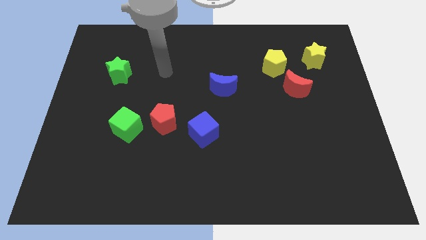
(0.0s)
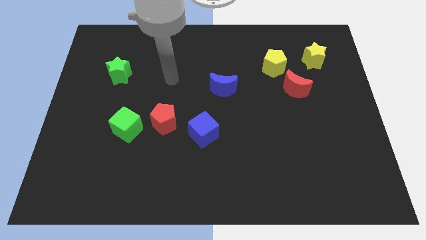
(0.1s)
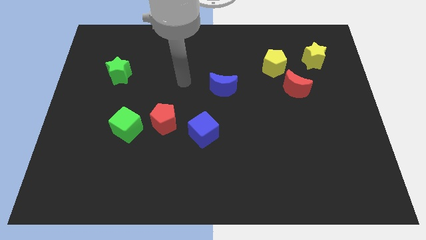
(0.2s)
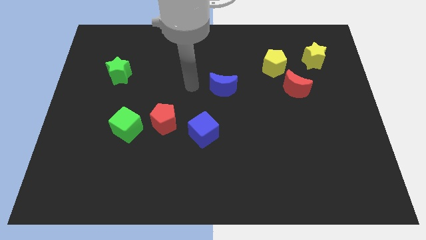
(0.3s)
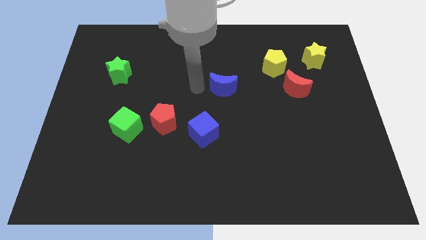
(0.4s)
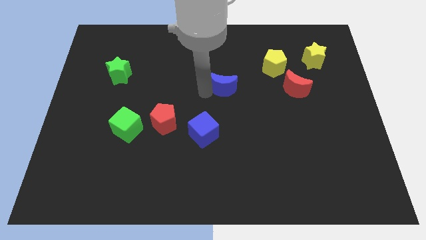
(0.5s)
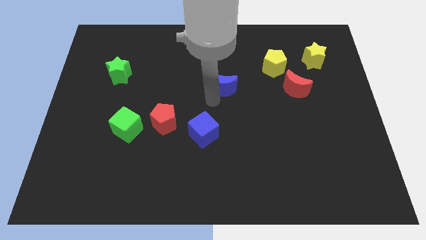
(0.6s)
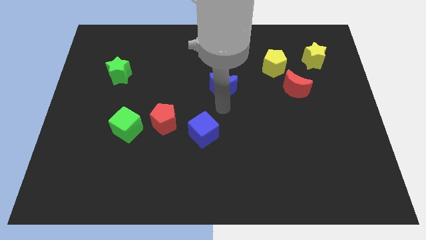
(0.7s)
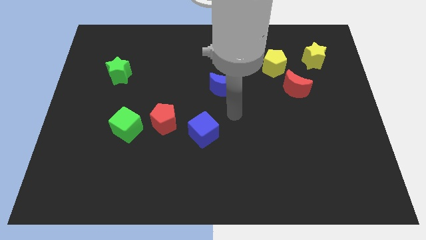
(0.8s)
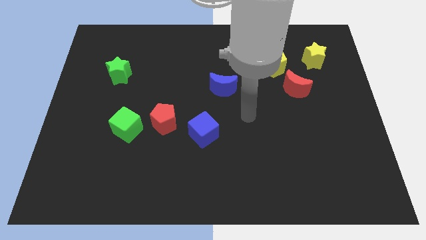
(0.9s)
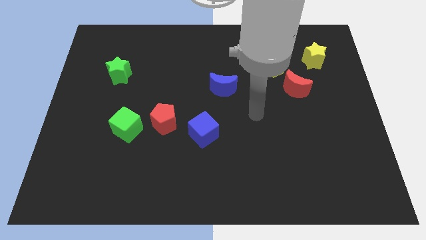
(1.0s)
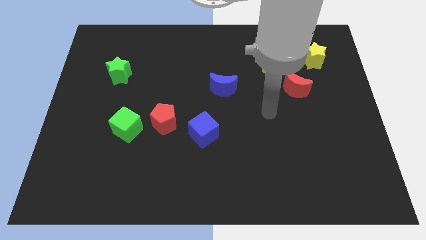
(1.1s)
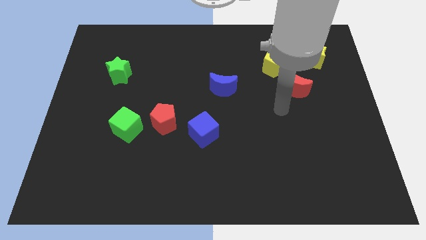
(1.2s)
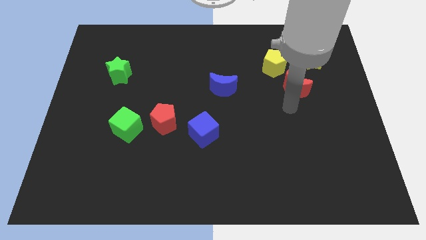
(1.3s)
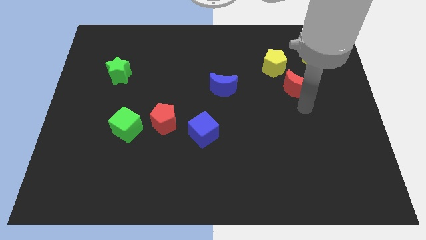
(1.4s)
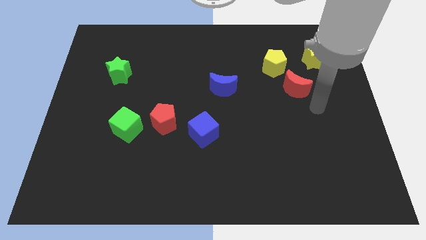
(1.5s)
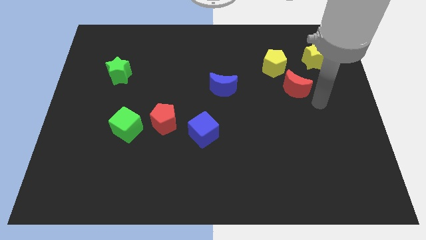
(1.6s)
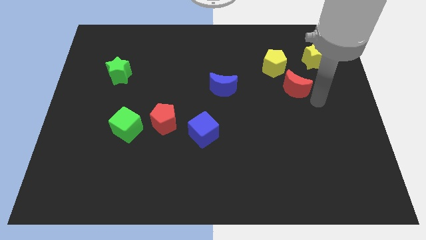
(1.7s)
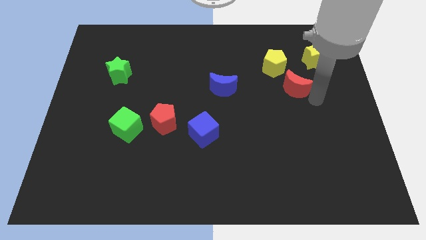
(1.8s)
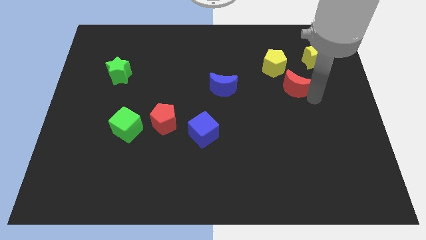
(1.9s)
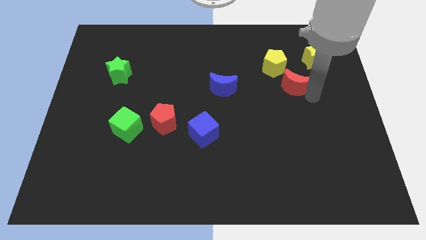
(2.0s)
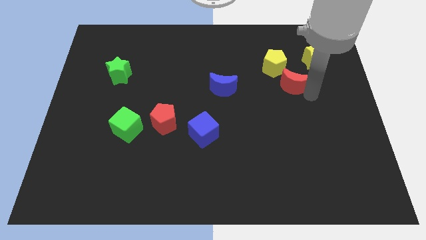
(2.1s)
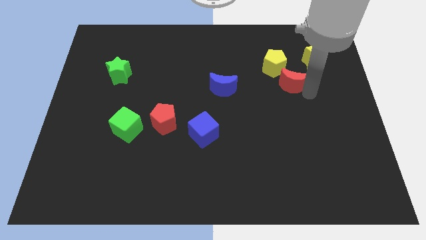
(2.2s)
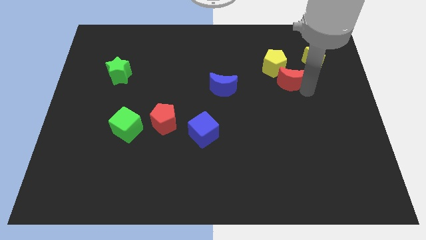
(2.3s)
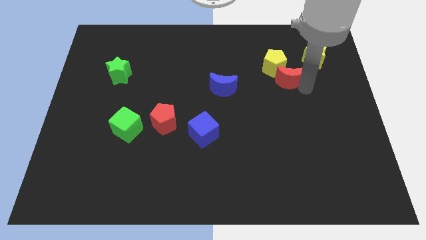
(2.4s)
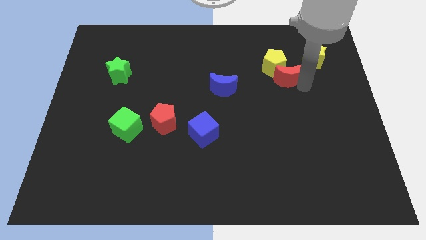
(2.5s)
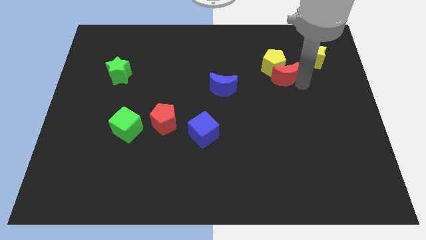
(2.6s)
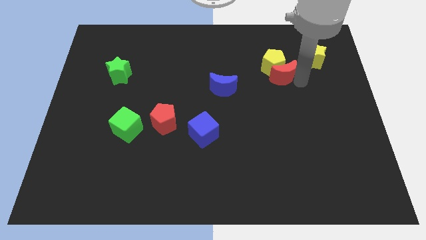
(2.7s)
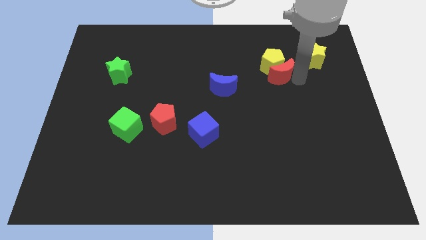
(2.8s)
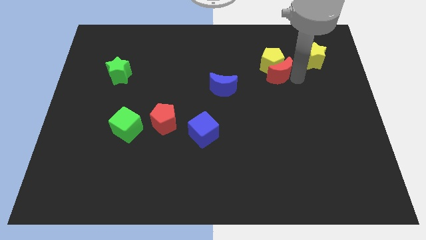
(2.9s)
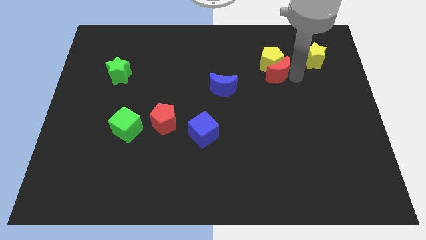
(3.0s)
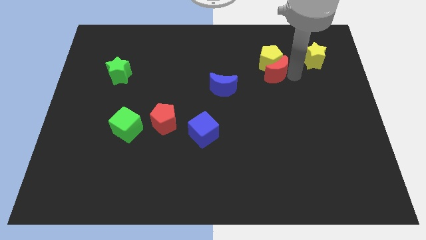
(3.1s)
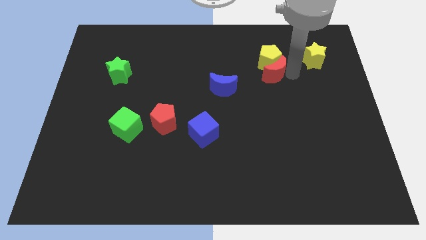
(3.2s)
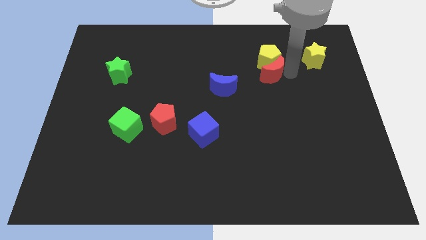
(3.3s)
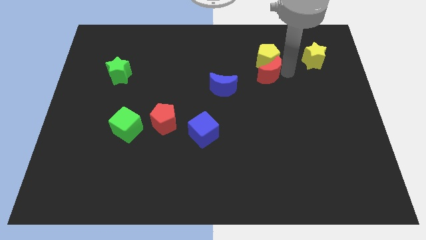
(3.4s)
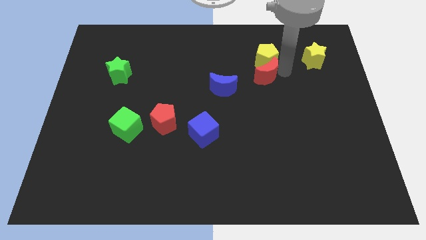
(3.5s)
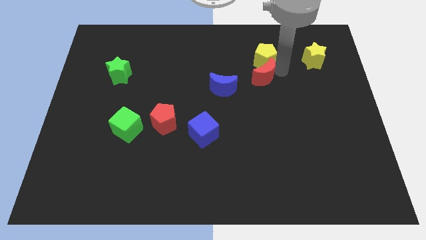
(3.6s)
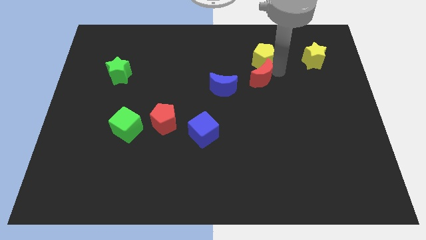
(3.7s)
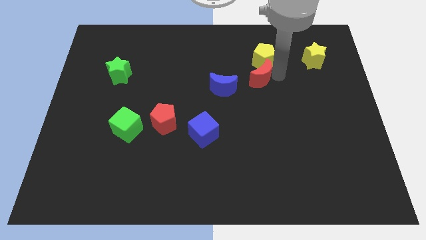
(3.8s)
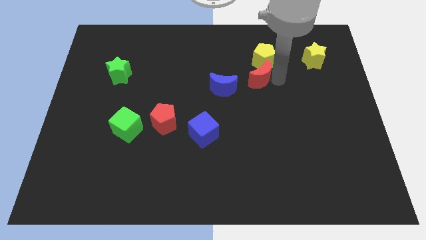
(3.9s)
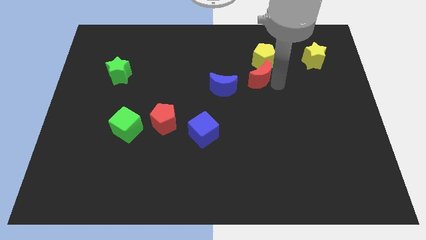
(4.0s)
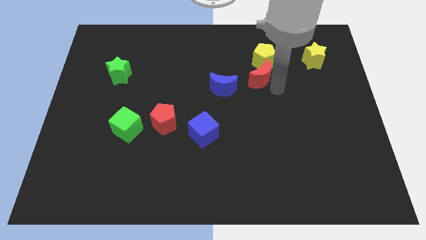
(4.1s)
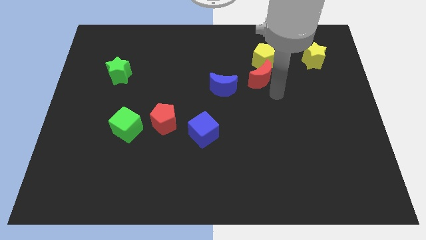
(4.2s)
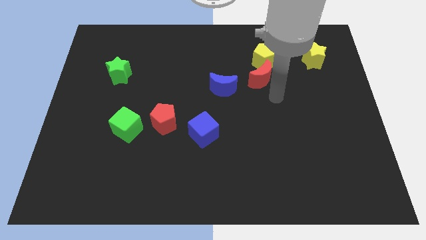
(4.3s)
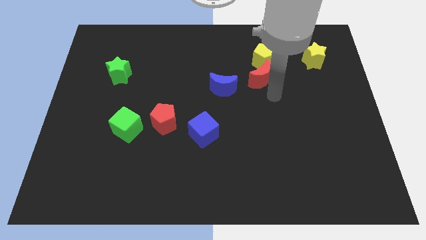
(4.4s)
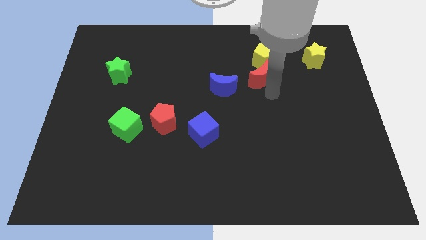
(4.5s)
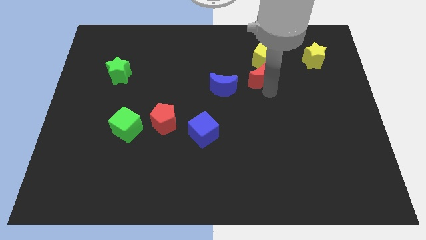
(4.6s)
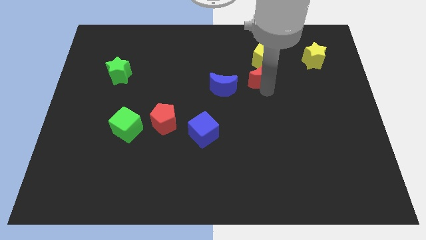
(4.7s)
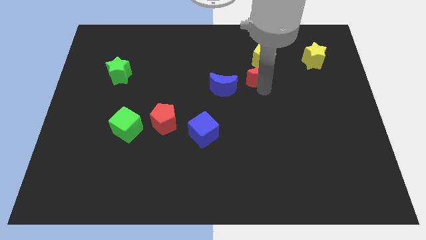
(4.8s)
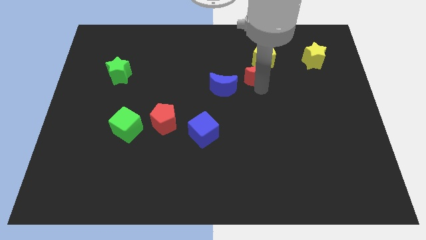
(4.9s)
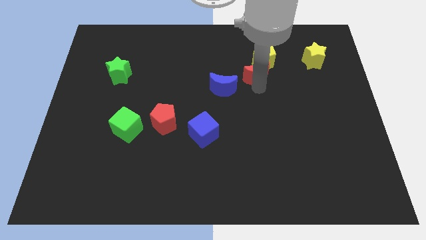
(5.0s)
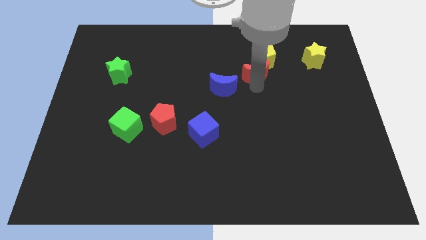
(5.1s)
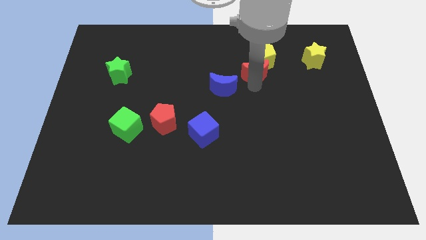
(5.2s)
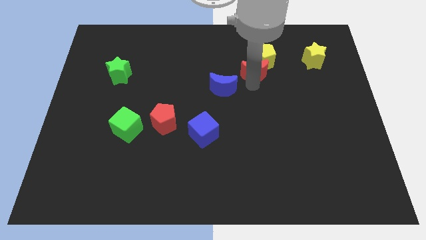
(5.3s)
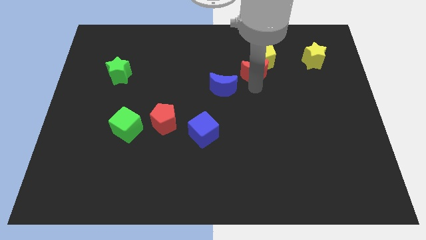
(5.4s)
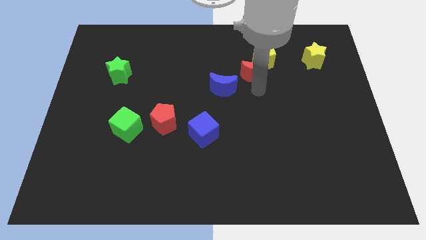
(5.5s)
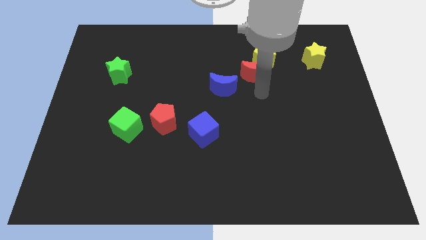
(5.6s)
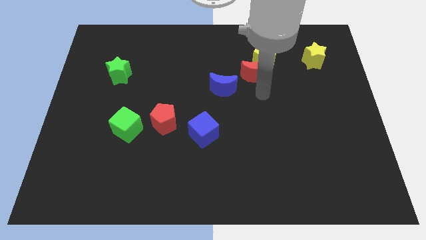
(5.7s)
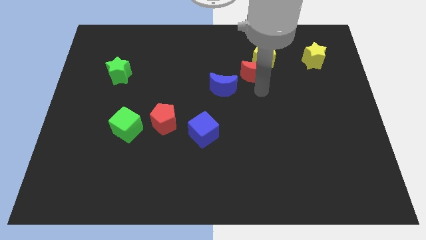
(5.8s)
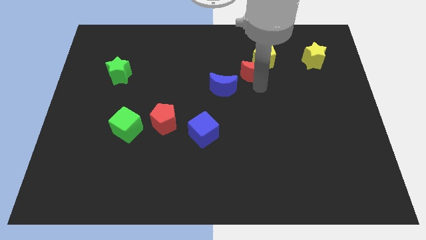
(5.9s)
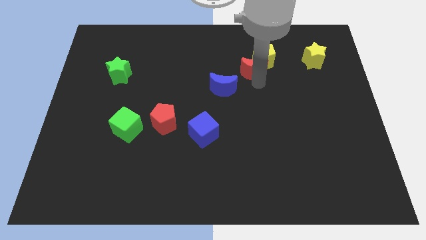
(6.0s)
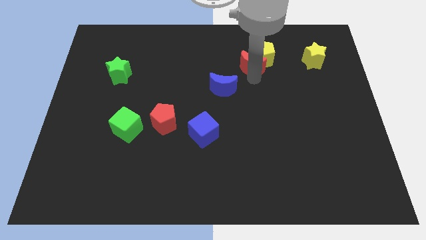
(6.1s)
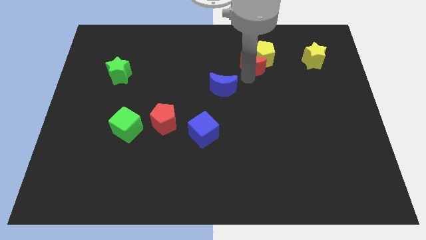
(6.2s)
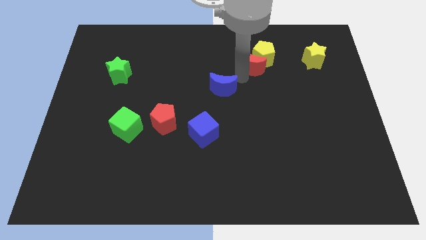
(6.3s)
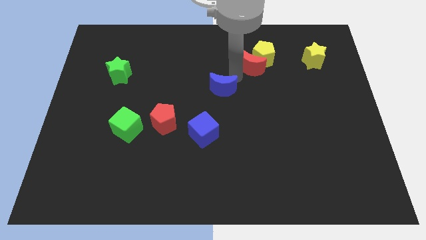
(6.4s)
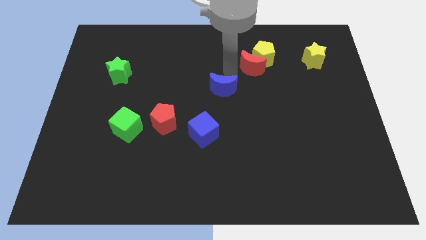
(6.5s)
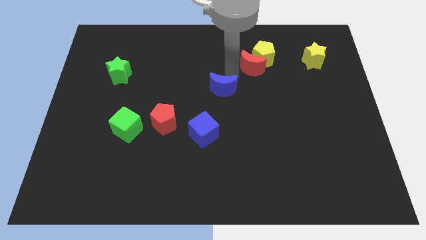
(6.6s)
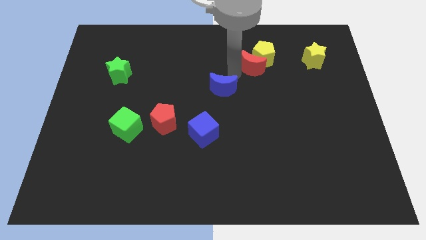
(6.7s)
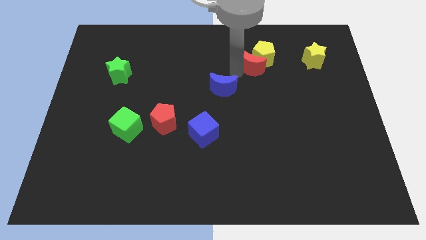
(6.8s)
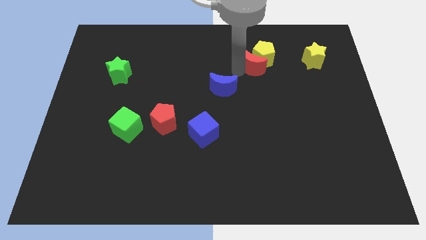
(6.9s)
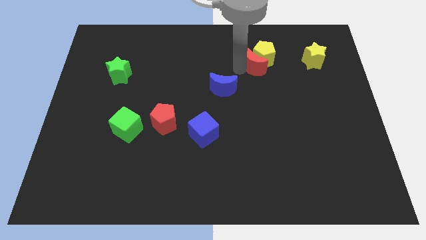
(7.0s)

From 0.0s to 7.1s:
push the red moon left of the yellow star

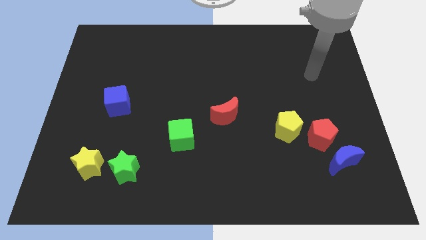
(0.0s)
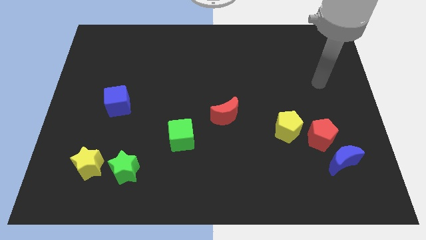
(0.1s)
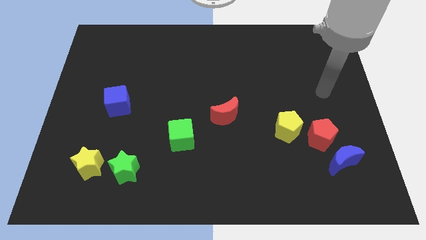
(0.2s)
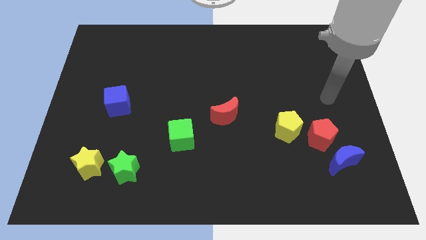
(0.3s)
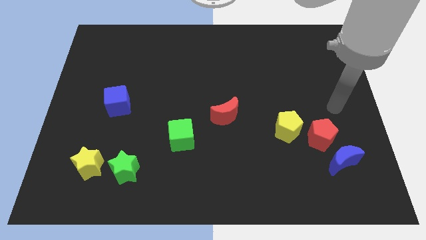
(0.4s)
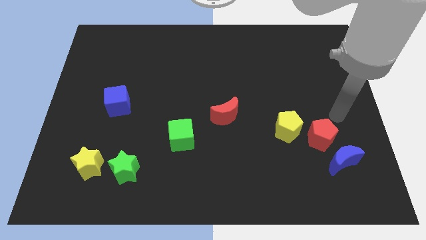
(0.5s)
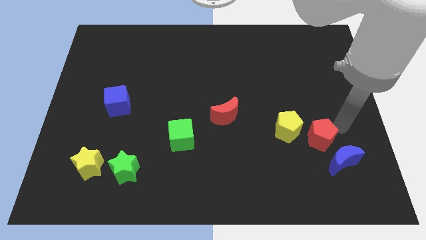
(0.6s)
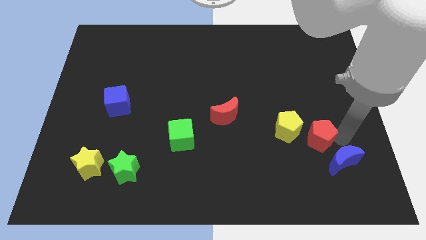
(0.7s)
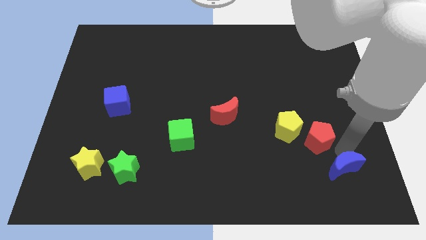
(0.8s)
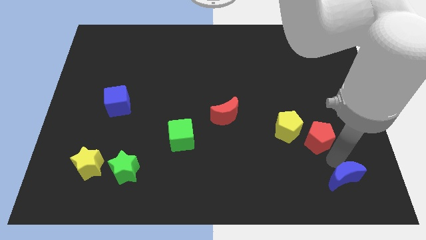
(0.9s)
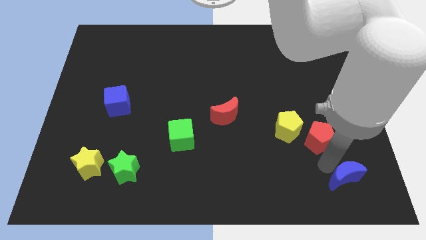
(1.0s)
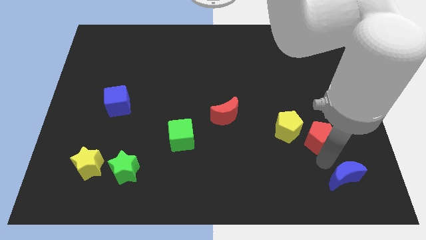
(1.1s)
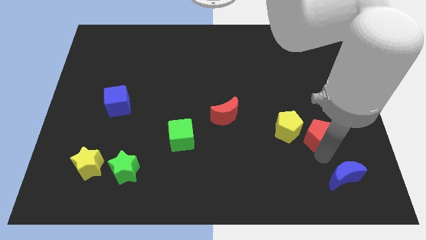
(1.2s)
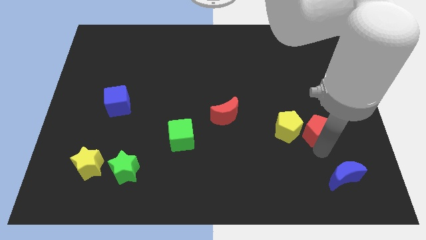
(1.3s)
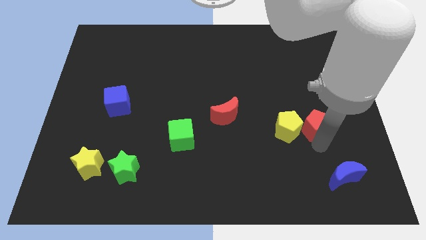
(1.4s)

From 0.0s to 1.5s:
put the red pentagon diagonally up and to the right of the yellow pentagon
